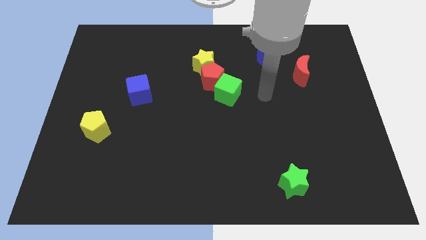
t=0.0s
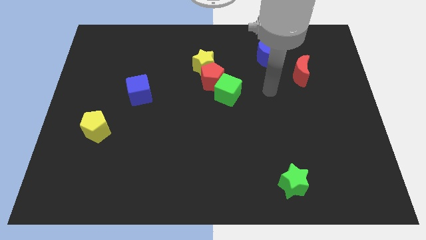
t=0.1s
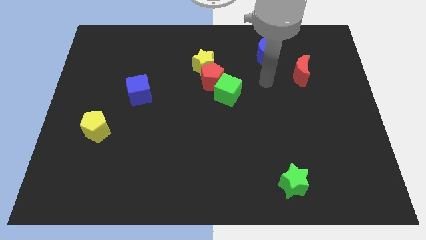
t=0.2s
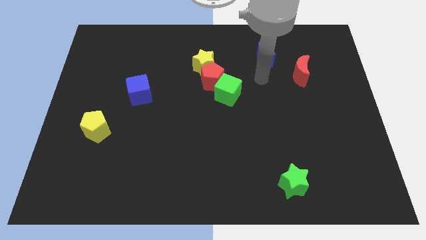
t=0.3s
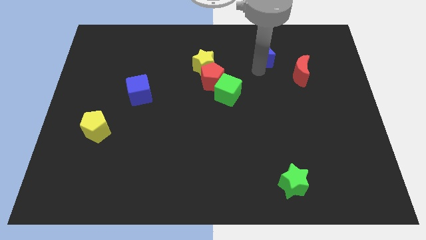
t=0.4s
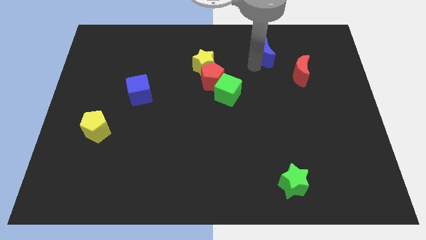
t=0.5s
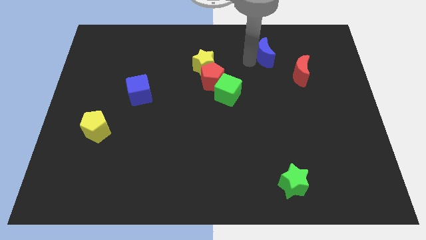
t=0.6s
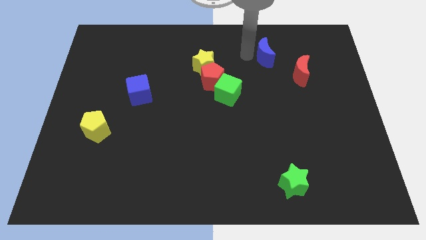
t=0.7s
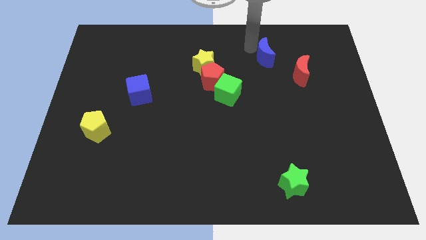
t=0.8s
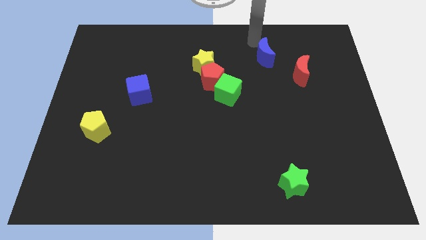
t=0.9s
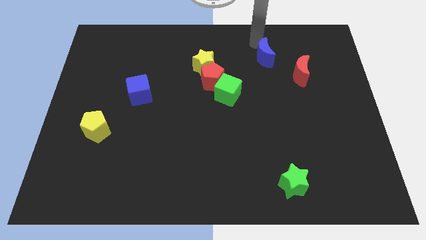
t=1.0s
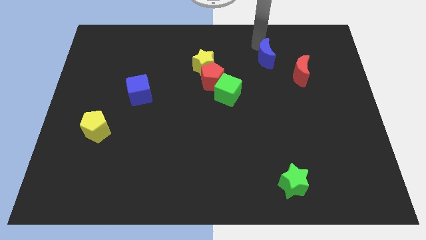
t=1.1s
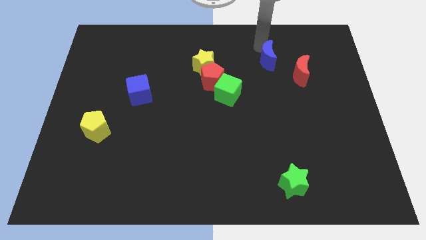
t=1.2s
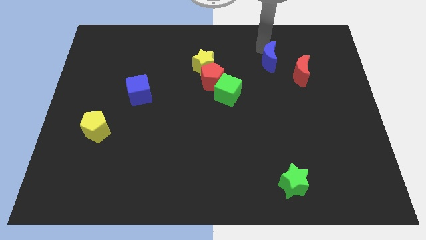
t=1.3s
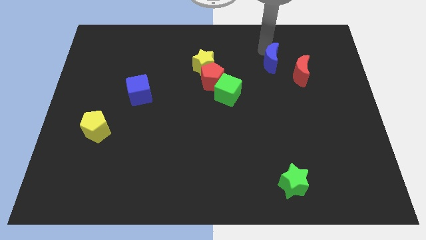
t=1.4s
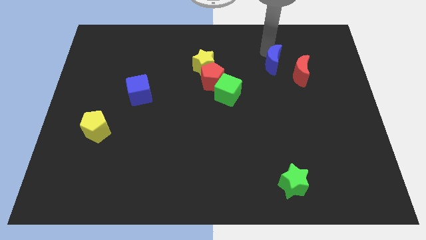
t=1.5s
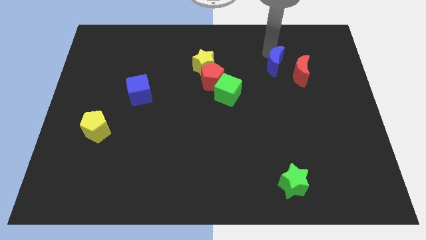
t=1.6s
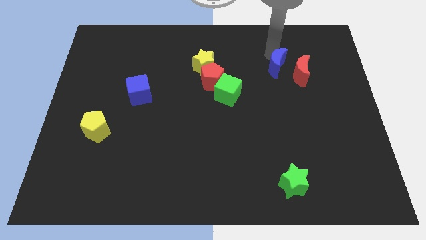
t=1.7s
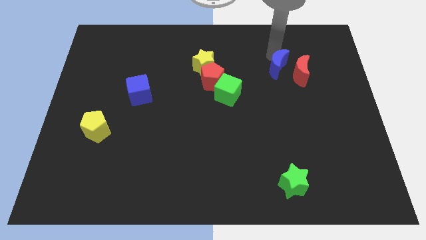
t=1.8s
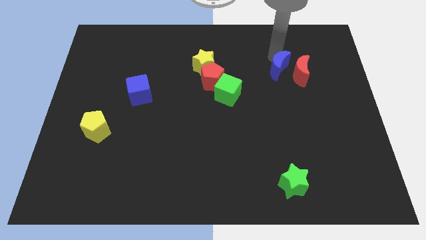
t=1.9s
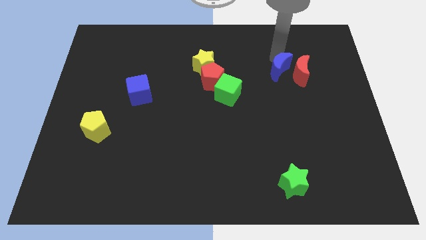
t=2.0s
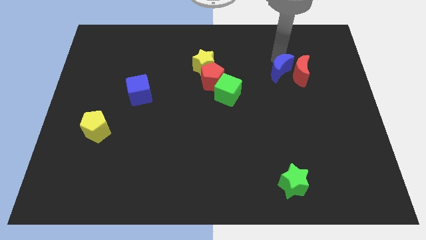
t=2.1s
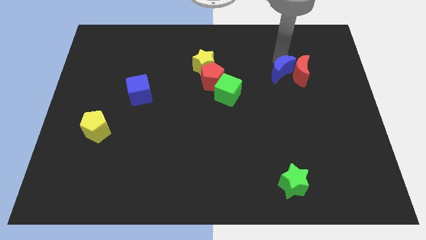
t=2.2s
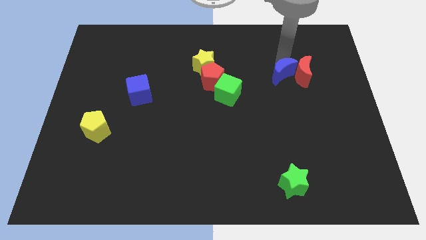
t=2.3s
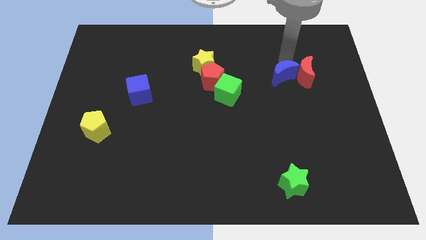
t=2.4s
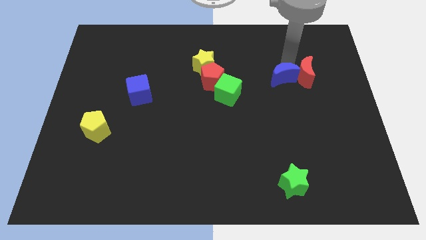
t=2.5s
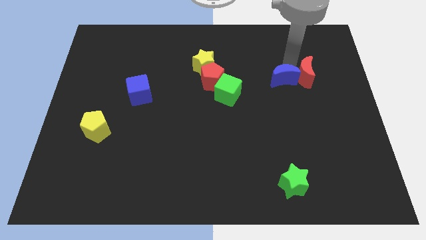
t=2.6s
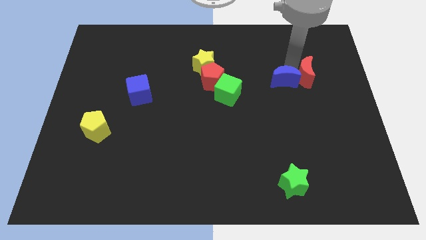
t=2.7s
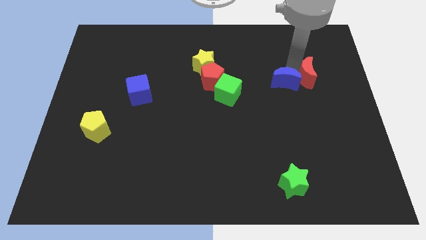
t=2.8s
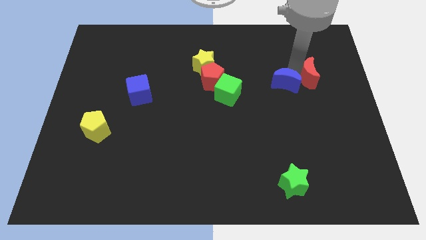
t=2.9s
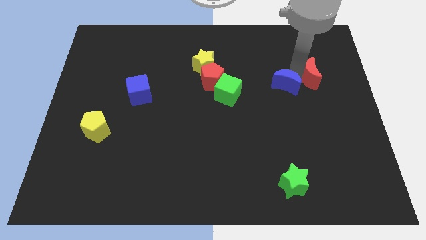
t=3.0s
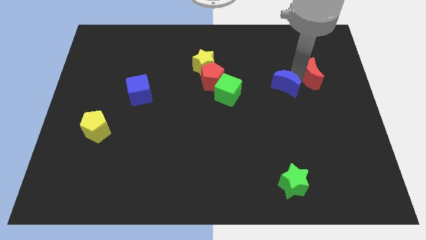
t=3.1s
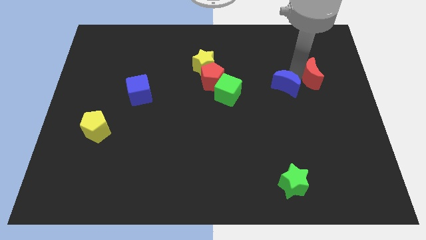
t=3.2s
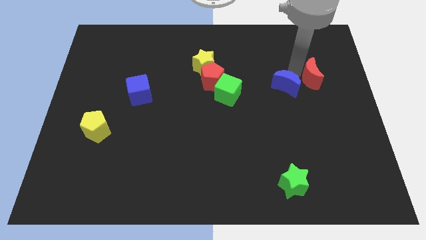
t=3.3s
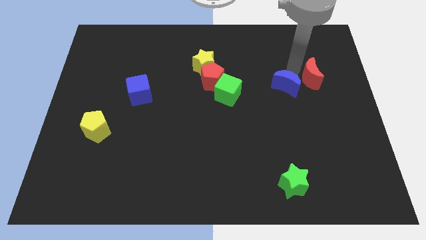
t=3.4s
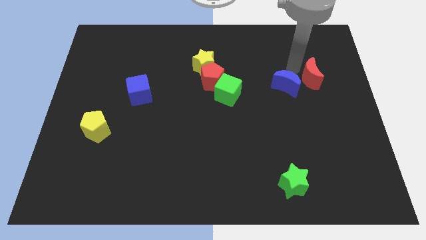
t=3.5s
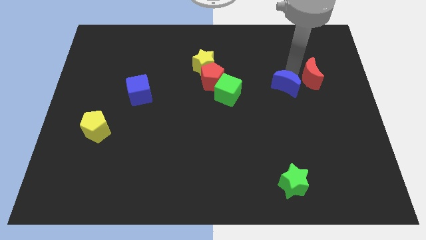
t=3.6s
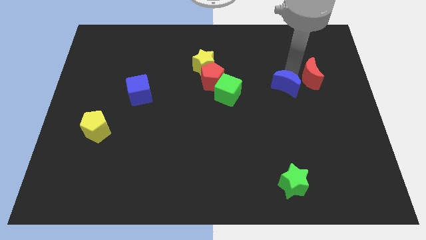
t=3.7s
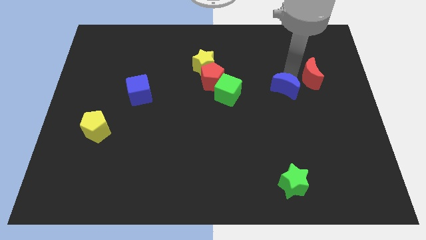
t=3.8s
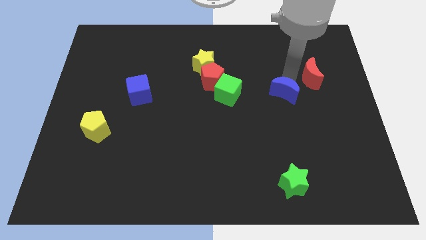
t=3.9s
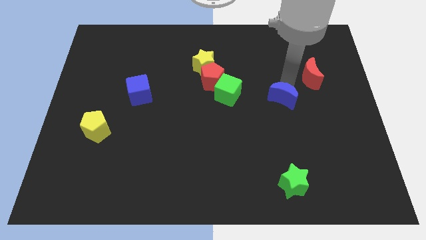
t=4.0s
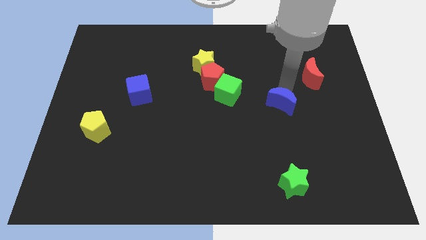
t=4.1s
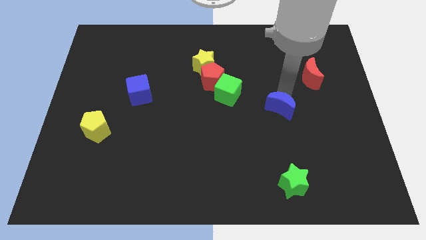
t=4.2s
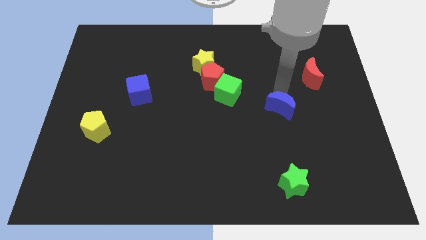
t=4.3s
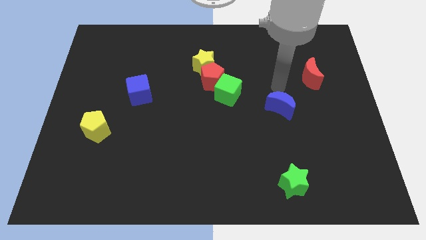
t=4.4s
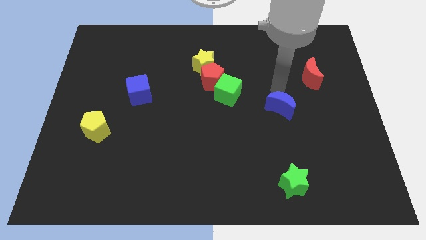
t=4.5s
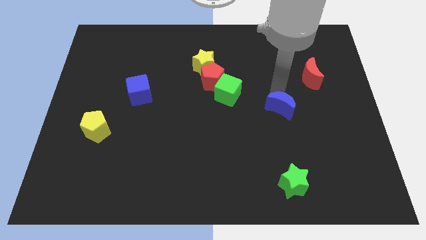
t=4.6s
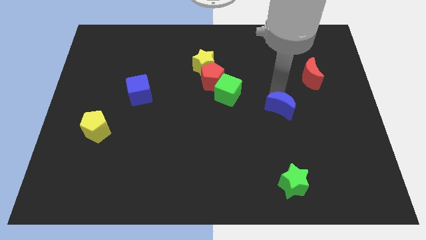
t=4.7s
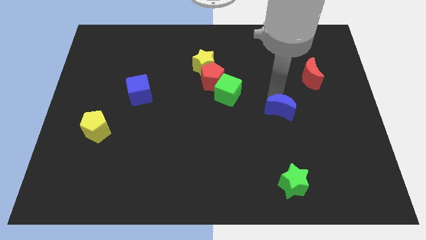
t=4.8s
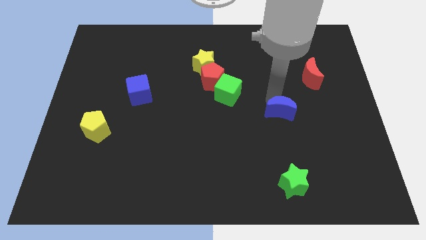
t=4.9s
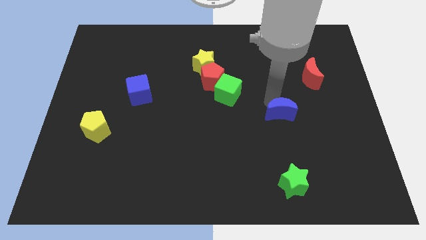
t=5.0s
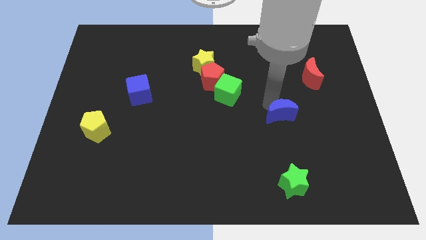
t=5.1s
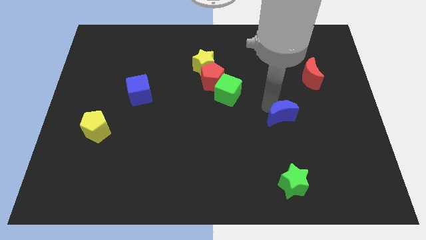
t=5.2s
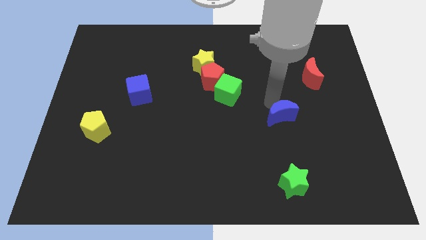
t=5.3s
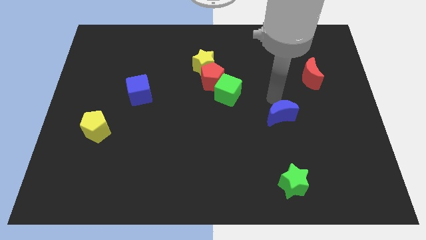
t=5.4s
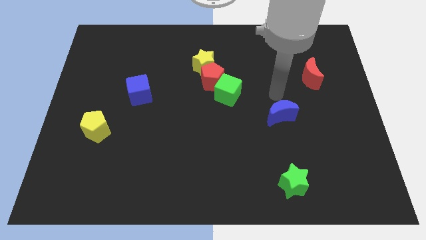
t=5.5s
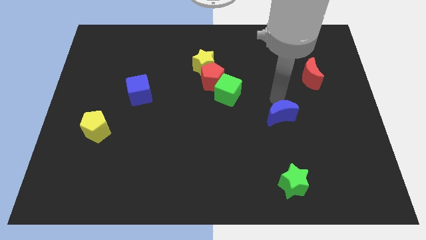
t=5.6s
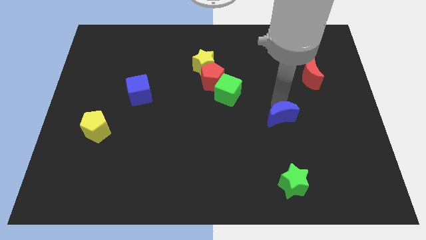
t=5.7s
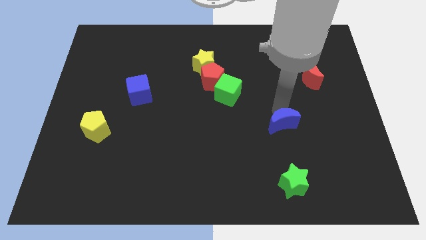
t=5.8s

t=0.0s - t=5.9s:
push the blue moon above the green star
